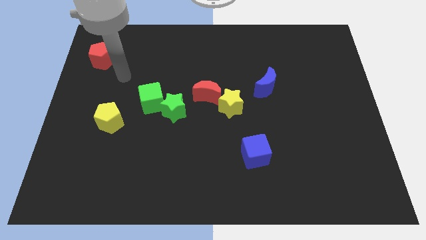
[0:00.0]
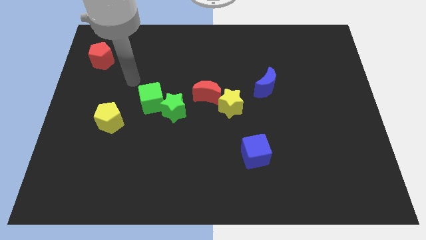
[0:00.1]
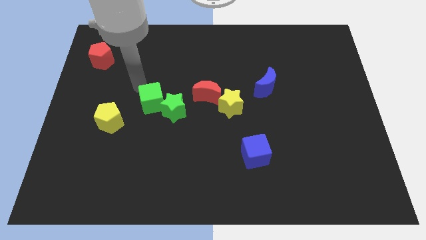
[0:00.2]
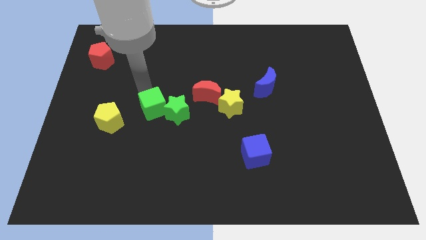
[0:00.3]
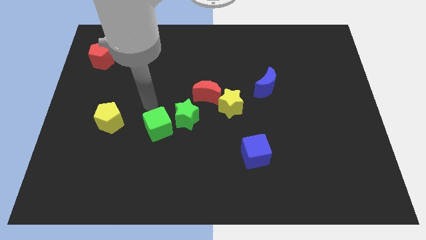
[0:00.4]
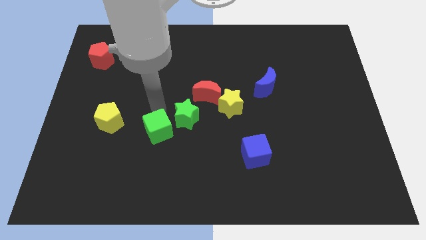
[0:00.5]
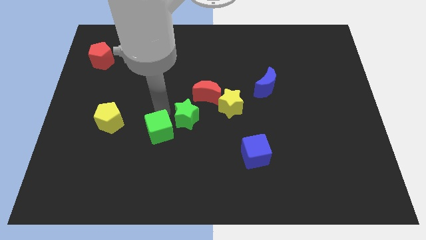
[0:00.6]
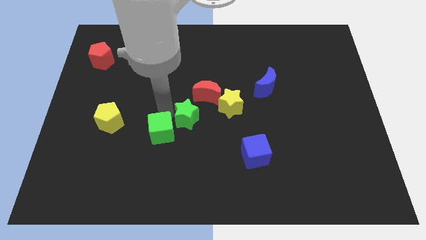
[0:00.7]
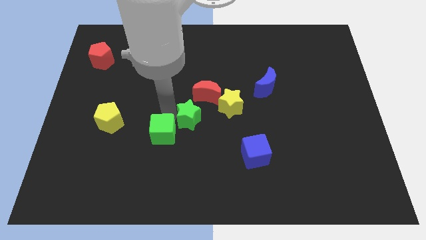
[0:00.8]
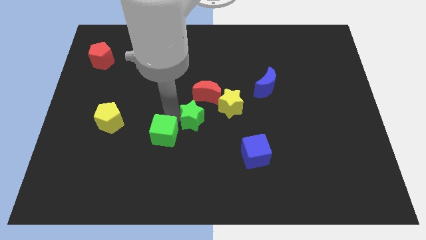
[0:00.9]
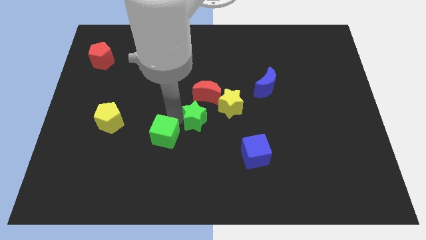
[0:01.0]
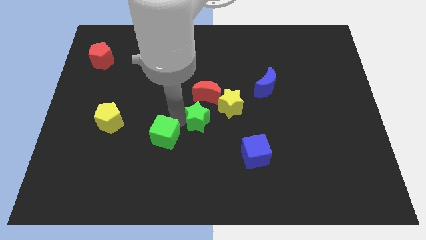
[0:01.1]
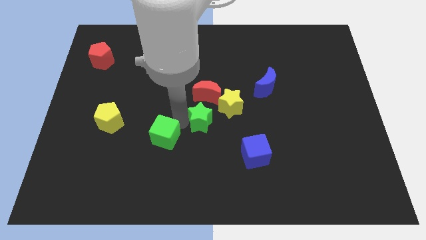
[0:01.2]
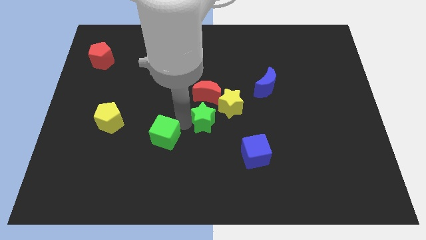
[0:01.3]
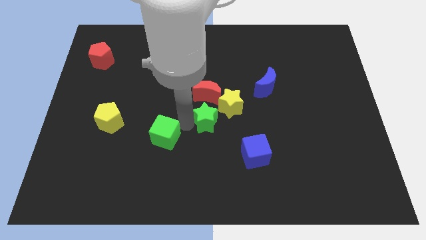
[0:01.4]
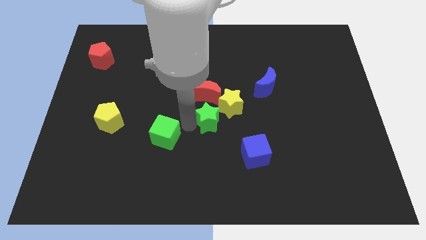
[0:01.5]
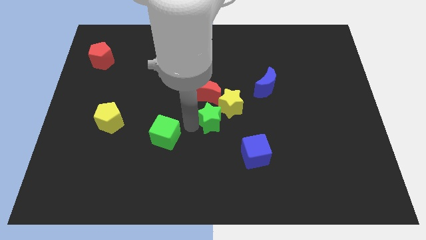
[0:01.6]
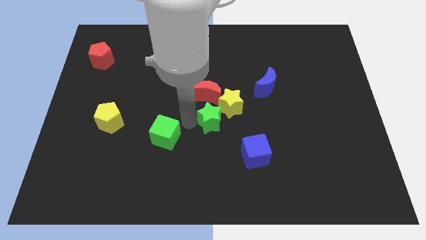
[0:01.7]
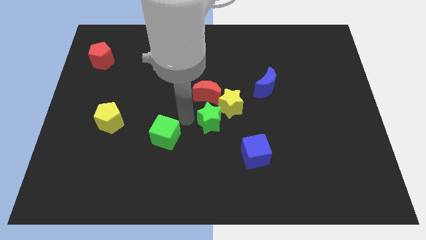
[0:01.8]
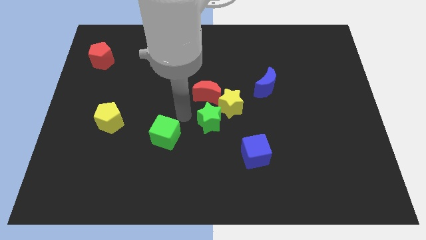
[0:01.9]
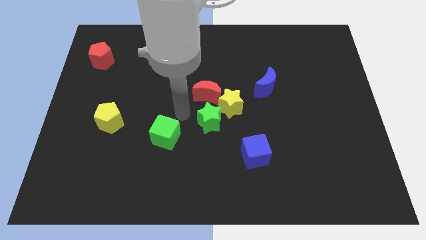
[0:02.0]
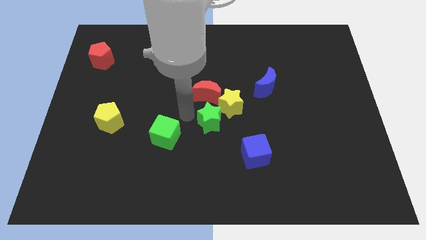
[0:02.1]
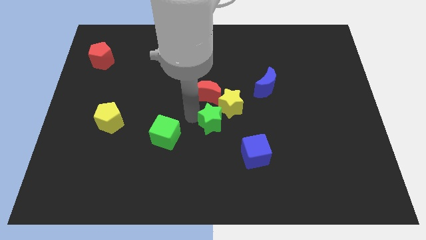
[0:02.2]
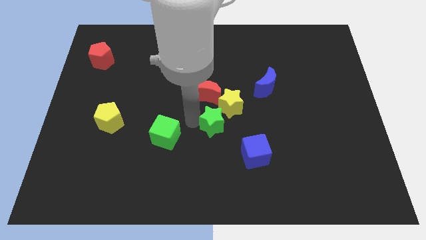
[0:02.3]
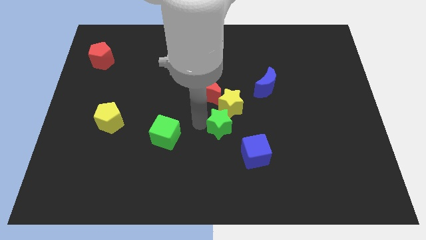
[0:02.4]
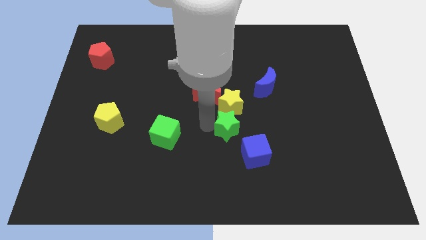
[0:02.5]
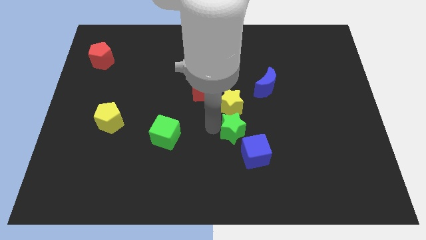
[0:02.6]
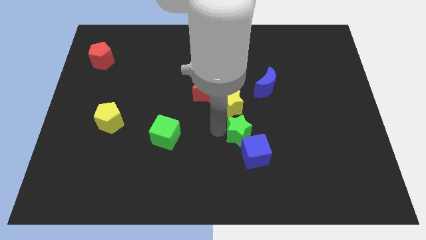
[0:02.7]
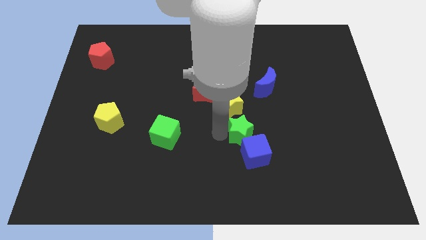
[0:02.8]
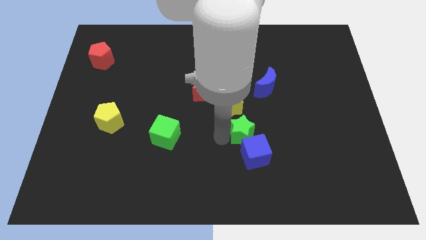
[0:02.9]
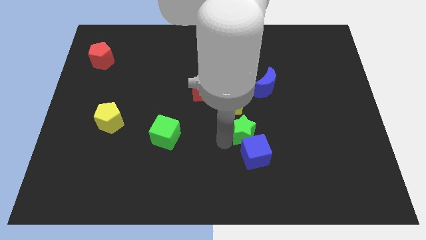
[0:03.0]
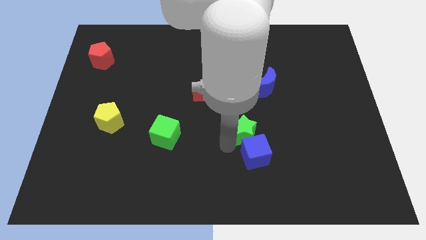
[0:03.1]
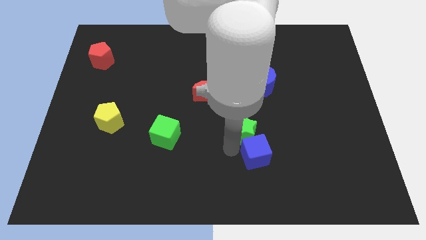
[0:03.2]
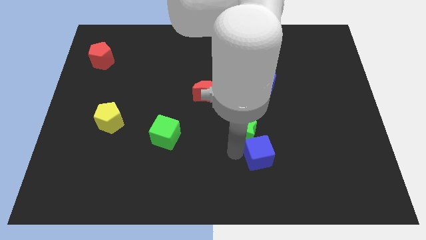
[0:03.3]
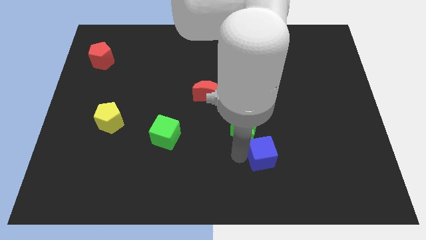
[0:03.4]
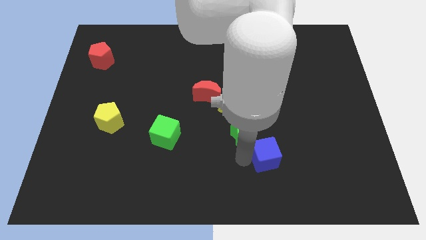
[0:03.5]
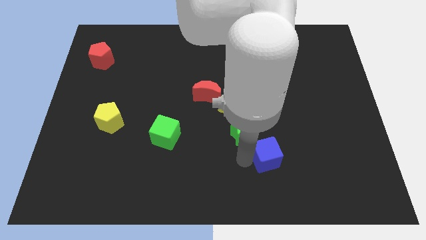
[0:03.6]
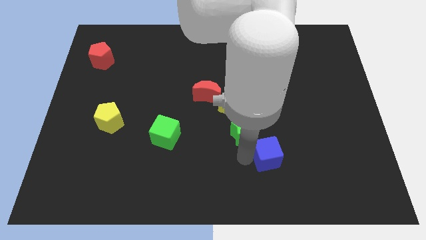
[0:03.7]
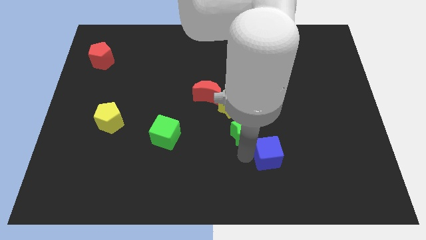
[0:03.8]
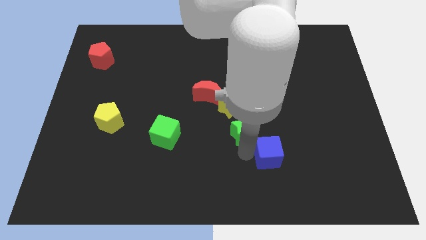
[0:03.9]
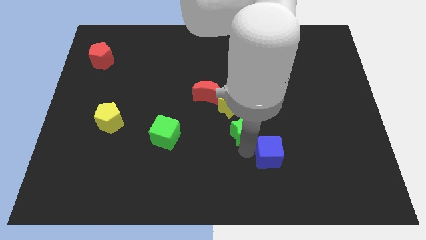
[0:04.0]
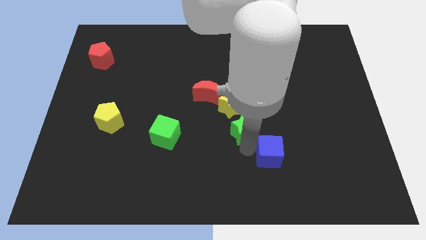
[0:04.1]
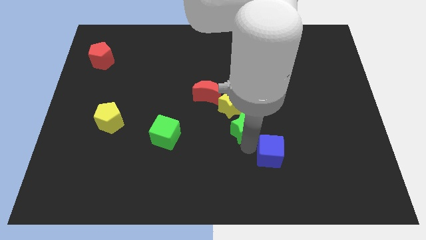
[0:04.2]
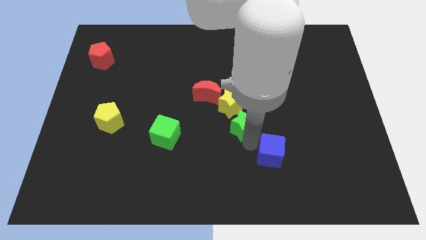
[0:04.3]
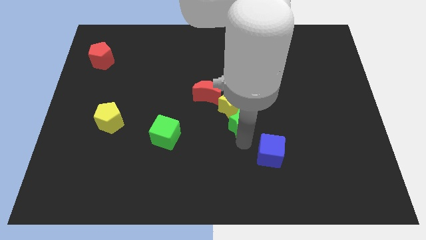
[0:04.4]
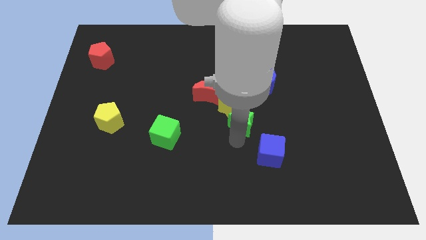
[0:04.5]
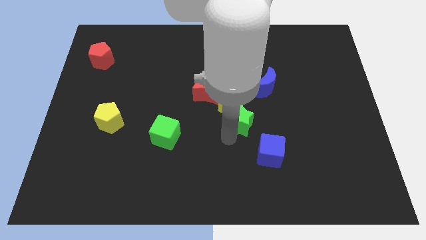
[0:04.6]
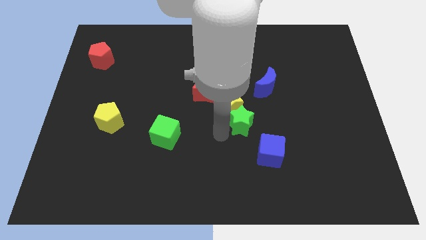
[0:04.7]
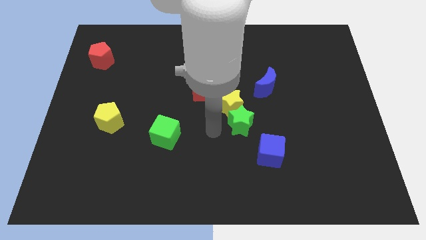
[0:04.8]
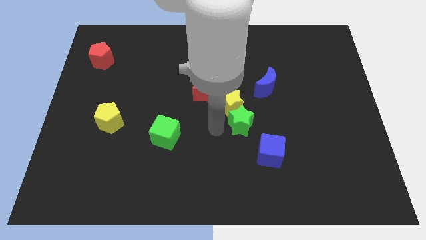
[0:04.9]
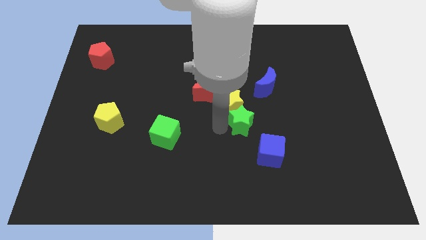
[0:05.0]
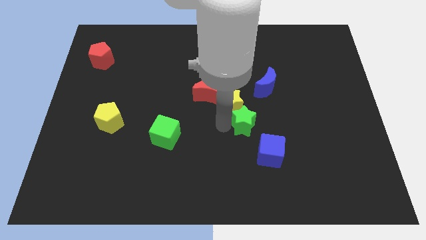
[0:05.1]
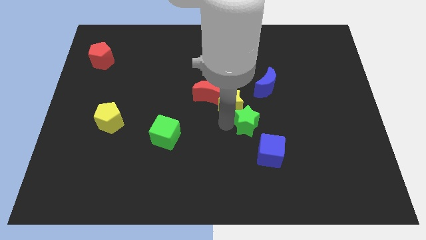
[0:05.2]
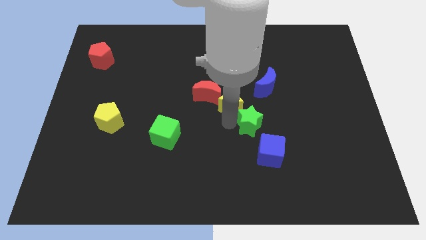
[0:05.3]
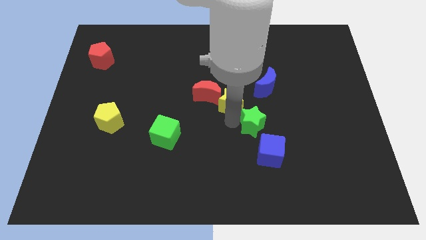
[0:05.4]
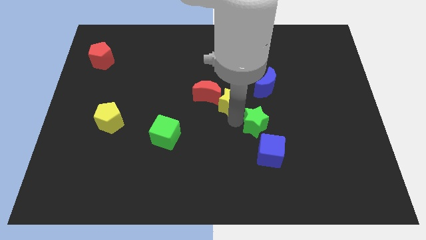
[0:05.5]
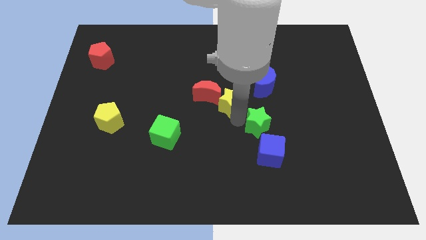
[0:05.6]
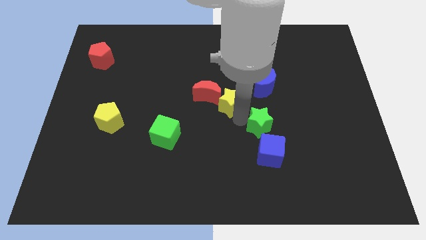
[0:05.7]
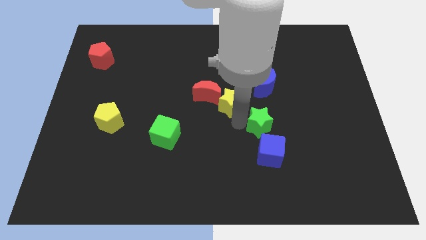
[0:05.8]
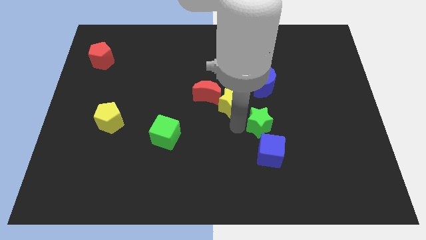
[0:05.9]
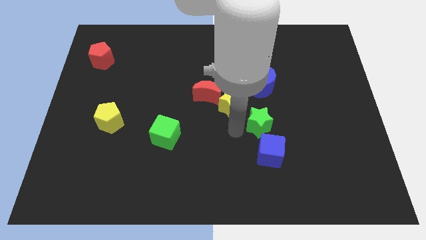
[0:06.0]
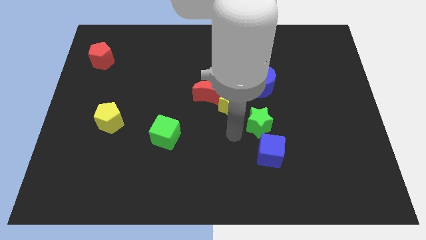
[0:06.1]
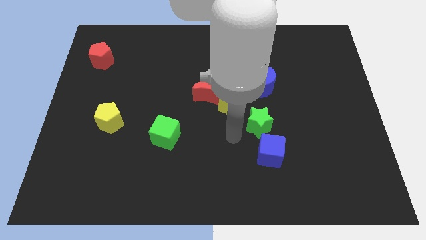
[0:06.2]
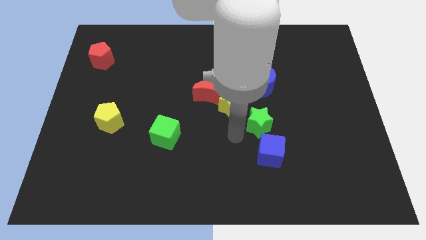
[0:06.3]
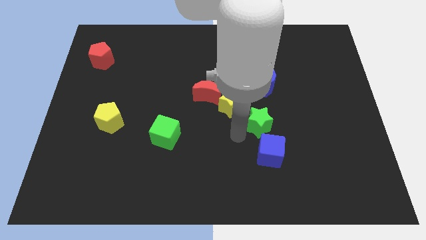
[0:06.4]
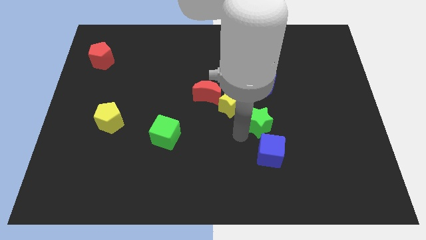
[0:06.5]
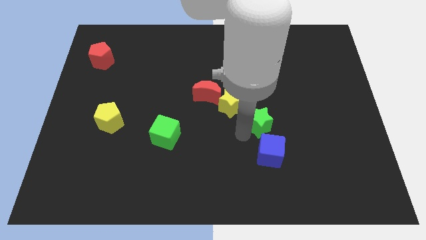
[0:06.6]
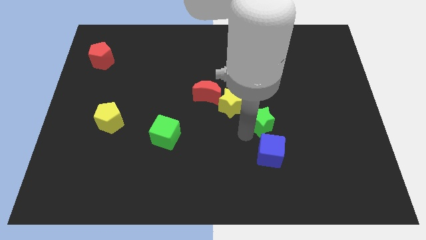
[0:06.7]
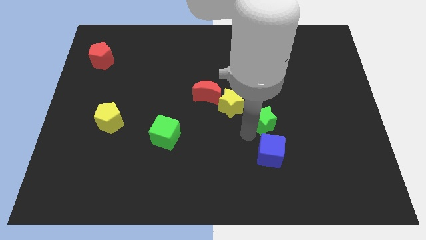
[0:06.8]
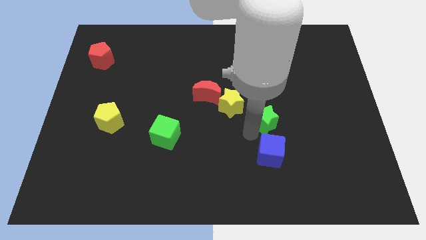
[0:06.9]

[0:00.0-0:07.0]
push the green star to the right

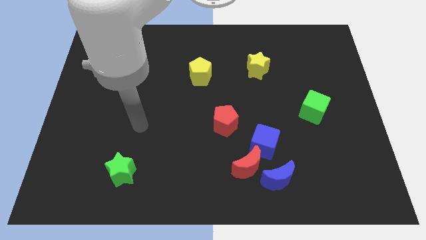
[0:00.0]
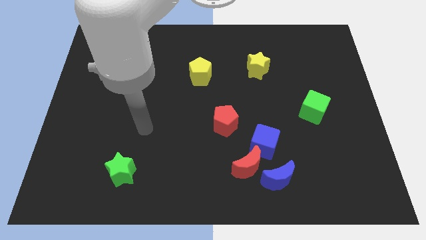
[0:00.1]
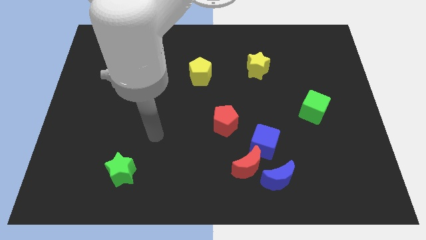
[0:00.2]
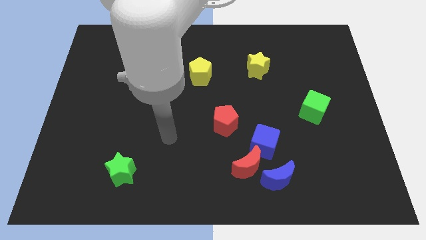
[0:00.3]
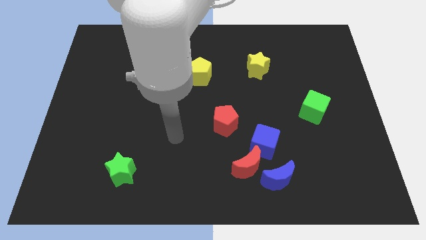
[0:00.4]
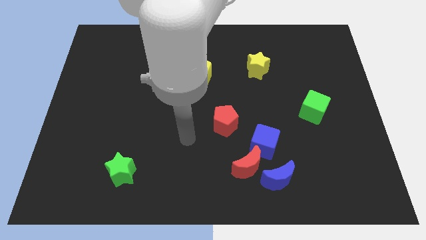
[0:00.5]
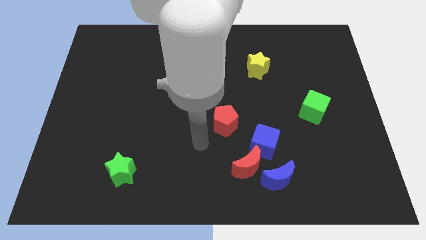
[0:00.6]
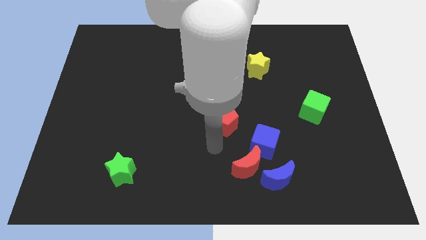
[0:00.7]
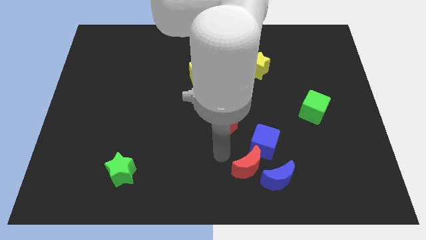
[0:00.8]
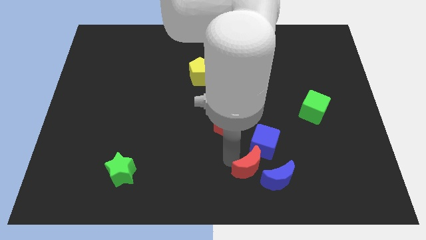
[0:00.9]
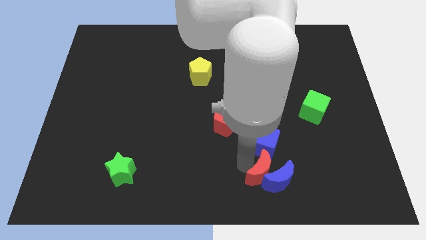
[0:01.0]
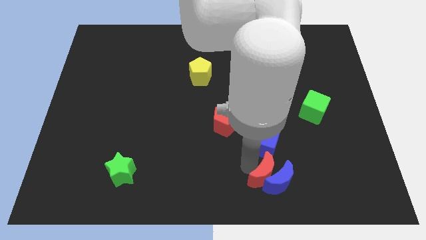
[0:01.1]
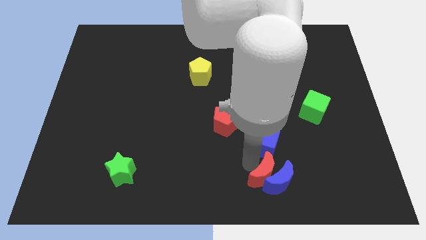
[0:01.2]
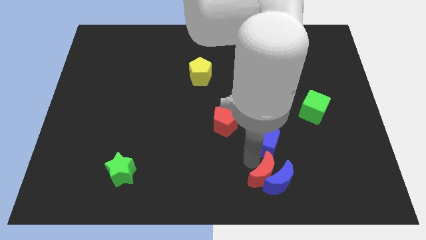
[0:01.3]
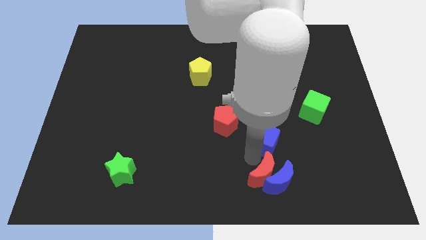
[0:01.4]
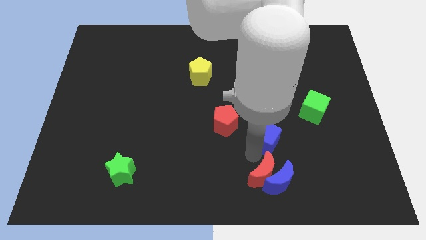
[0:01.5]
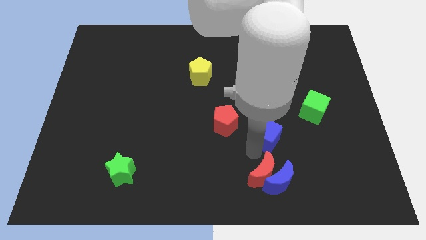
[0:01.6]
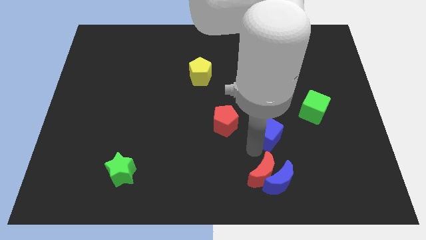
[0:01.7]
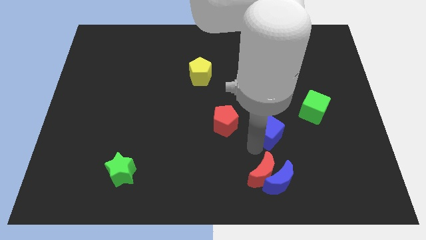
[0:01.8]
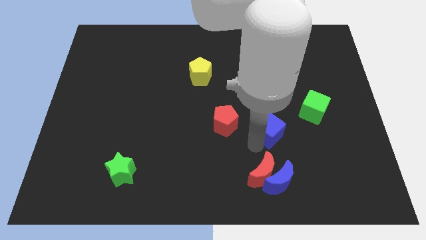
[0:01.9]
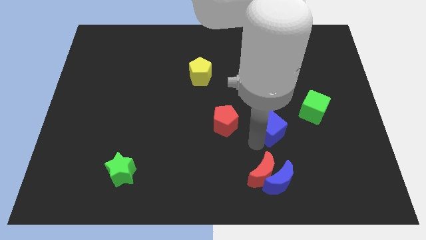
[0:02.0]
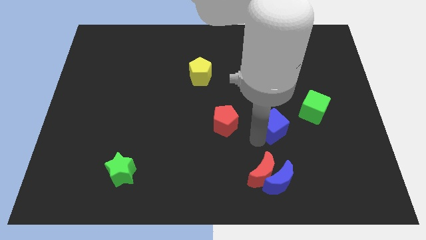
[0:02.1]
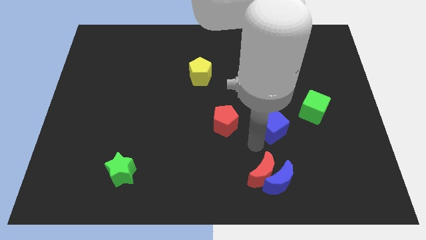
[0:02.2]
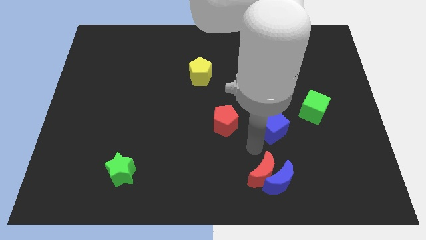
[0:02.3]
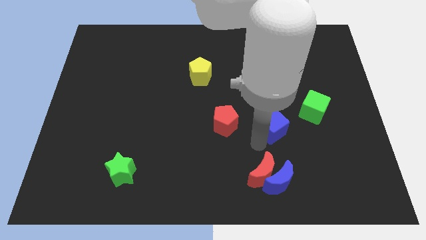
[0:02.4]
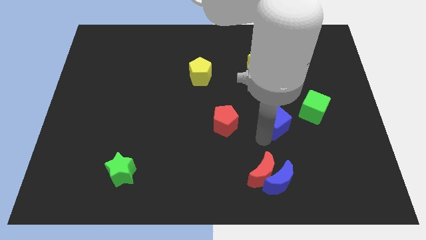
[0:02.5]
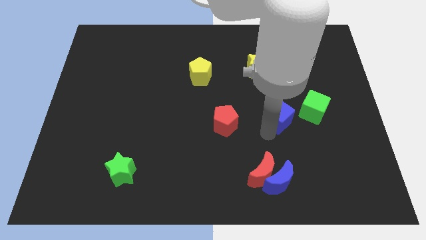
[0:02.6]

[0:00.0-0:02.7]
slide the blue cube upwards and right diagonally slightly
